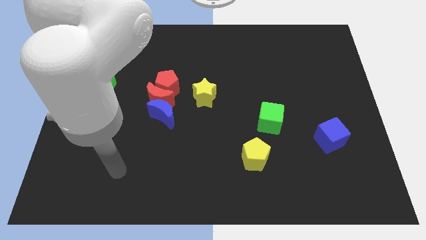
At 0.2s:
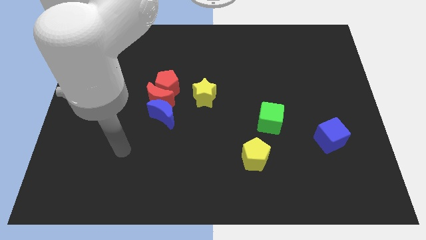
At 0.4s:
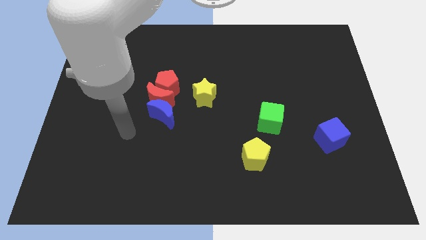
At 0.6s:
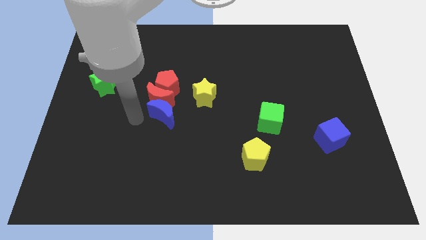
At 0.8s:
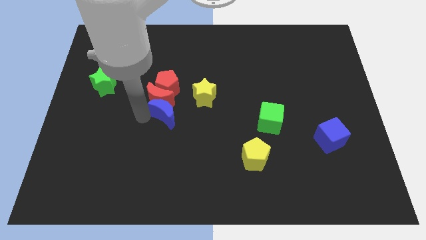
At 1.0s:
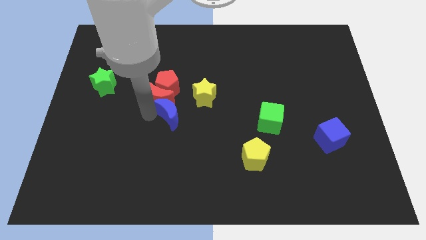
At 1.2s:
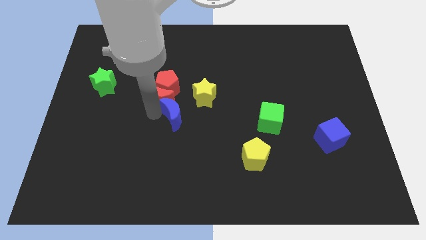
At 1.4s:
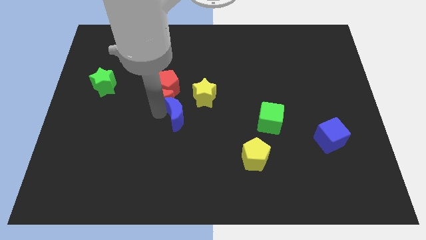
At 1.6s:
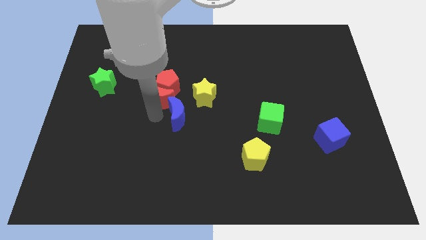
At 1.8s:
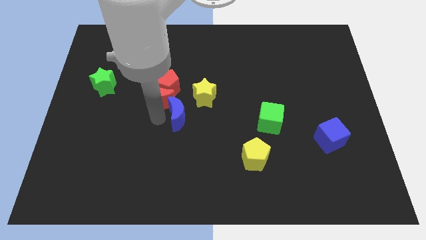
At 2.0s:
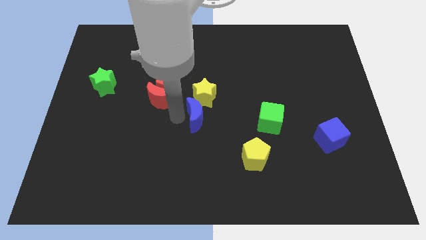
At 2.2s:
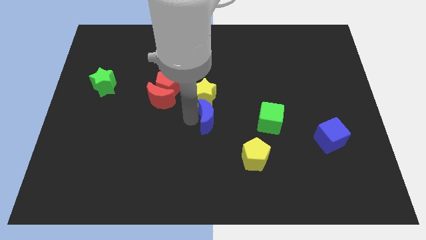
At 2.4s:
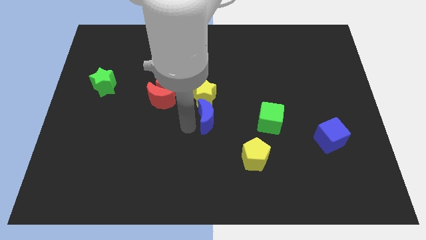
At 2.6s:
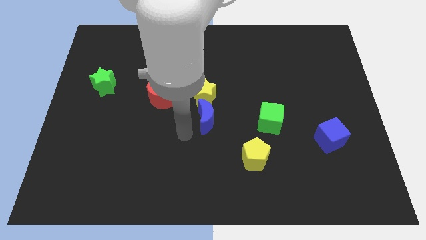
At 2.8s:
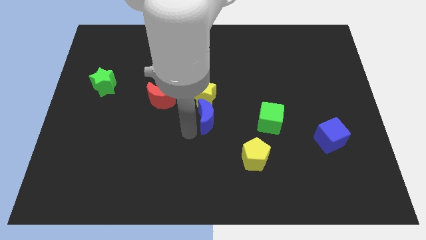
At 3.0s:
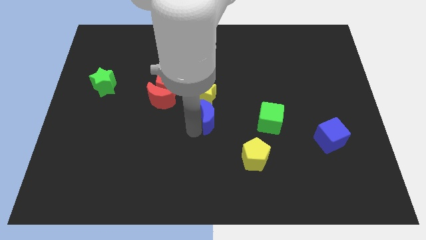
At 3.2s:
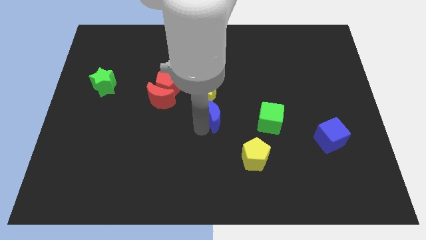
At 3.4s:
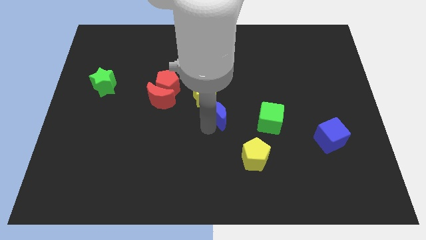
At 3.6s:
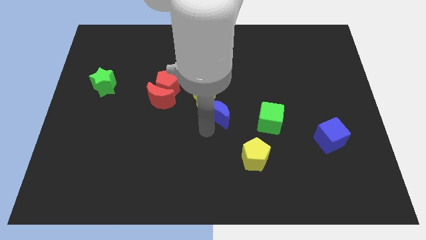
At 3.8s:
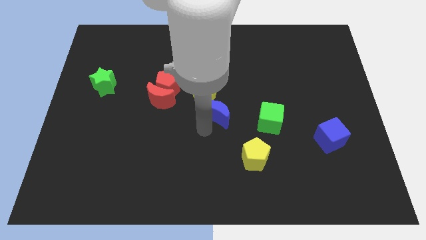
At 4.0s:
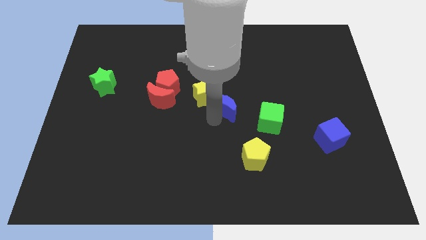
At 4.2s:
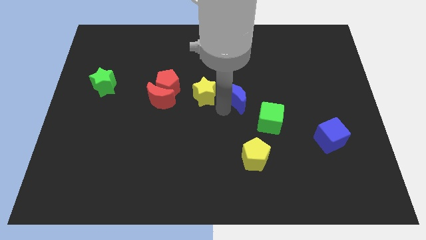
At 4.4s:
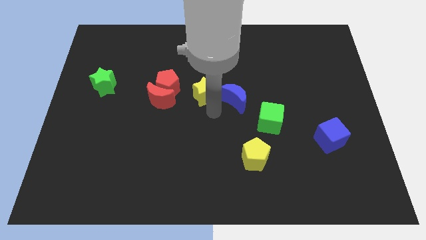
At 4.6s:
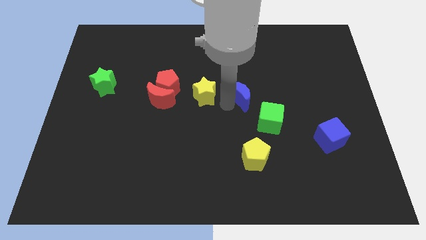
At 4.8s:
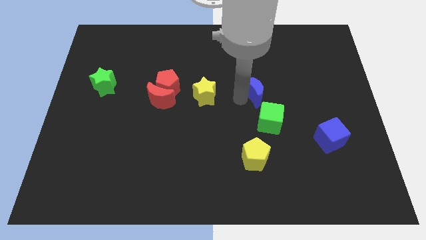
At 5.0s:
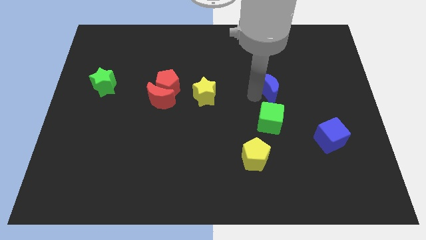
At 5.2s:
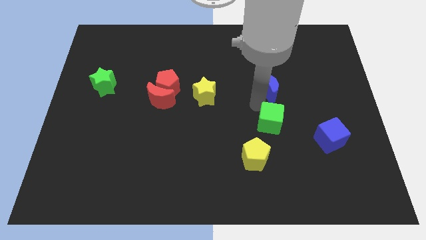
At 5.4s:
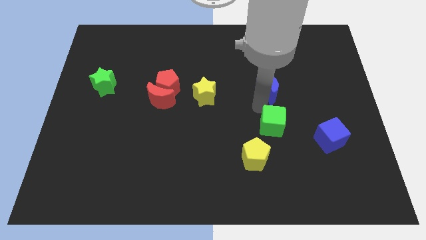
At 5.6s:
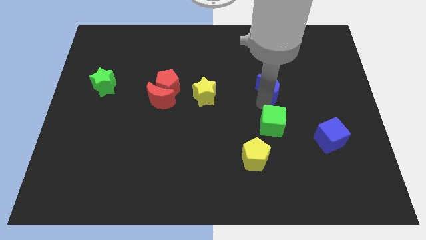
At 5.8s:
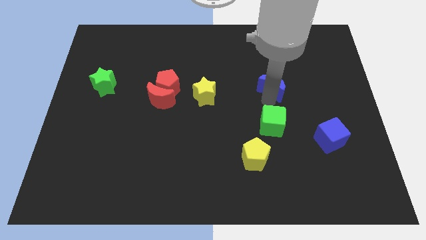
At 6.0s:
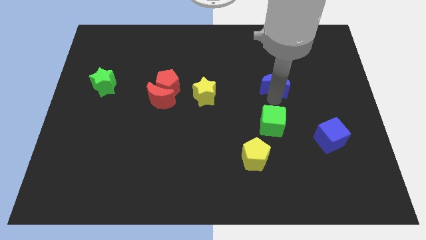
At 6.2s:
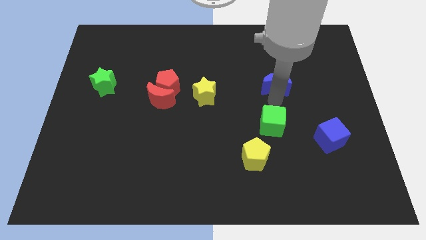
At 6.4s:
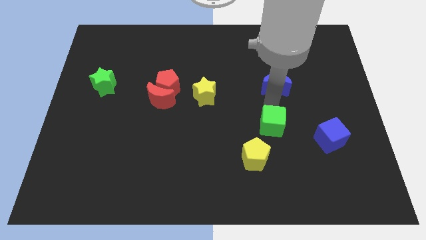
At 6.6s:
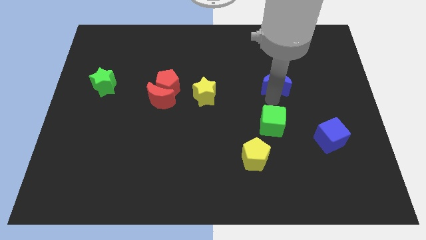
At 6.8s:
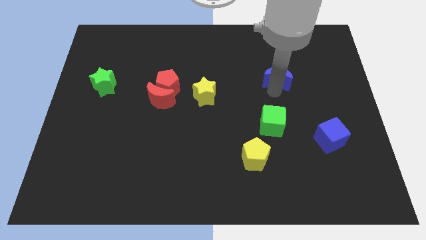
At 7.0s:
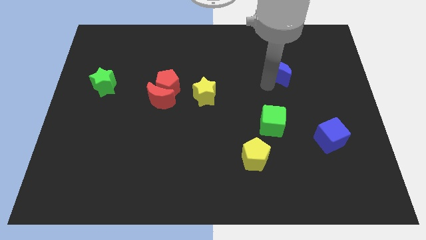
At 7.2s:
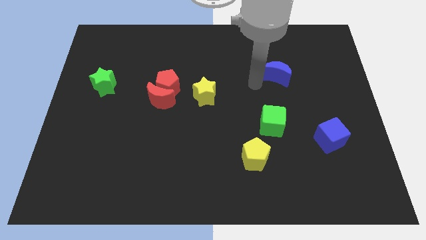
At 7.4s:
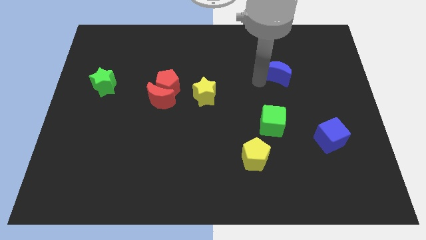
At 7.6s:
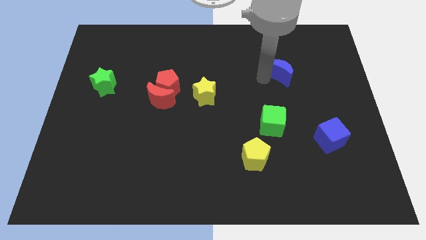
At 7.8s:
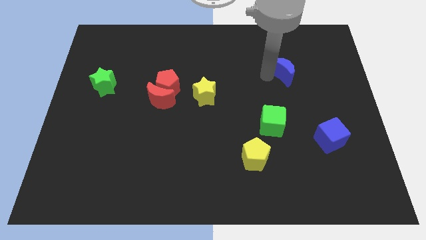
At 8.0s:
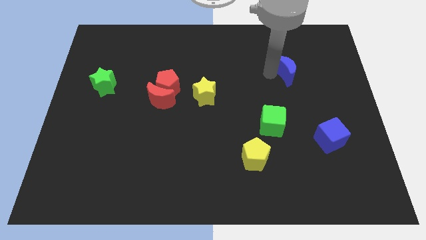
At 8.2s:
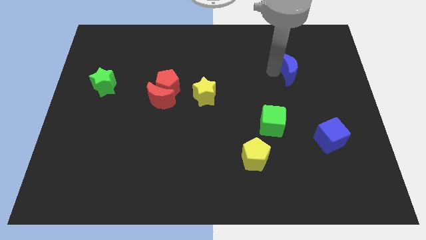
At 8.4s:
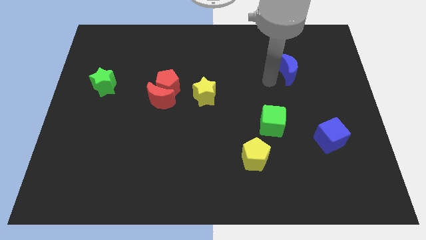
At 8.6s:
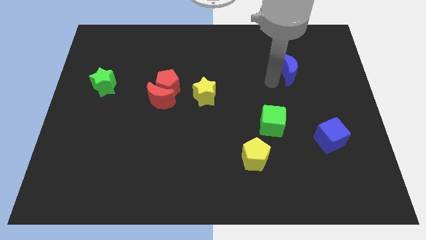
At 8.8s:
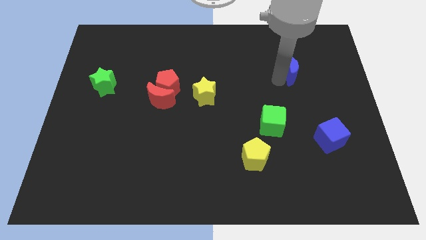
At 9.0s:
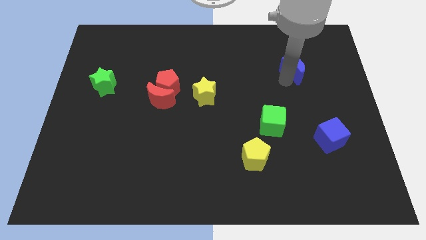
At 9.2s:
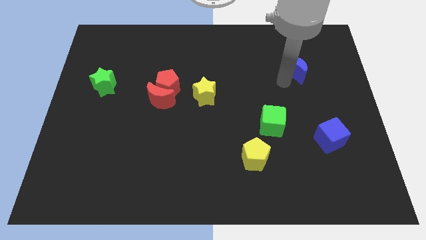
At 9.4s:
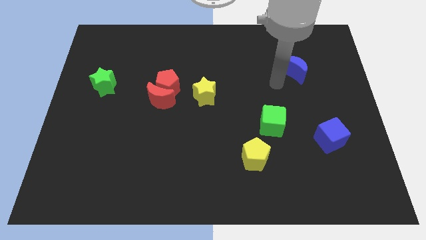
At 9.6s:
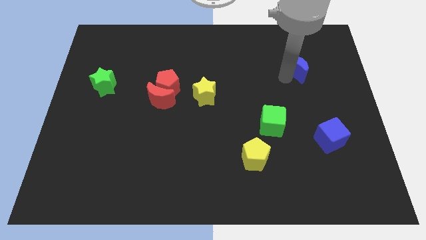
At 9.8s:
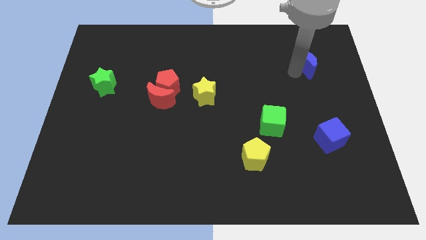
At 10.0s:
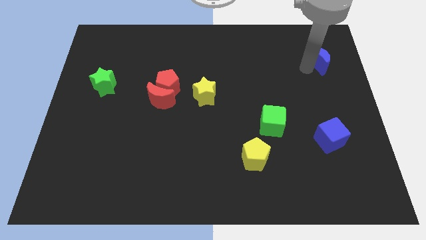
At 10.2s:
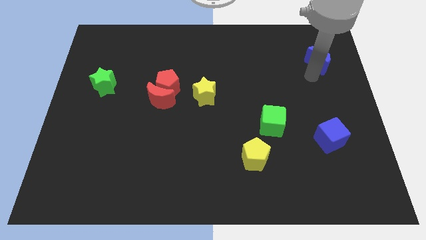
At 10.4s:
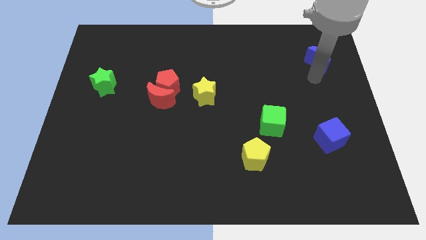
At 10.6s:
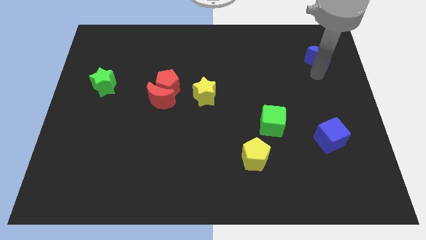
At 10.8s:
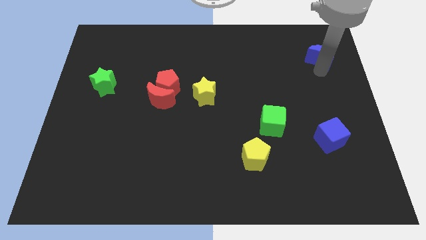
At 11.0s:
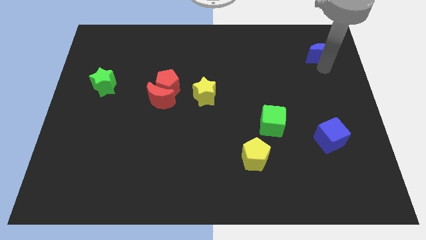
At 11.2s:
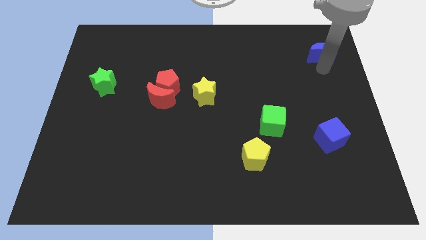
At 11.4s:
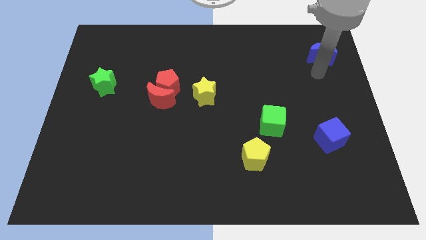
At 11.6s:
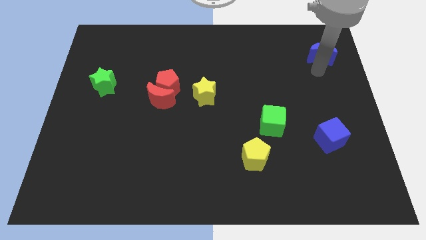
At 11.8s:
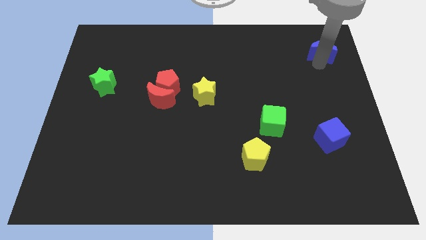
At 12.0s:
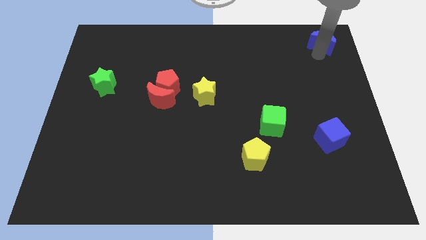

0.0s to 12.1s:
slide the blue moon to the upper right corner

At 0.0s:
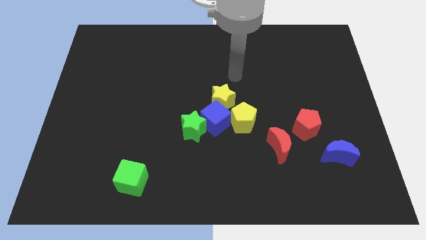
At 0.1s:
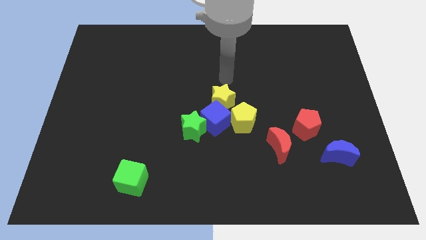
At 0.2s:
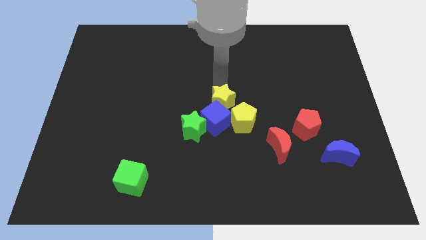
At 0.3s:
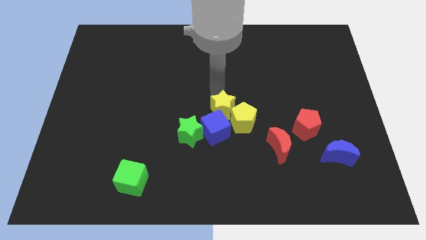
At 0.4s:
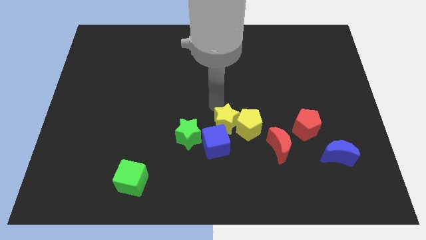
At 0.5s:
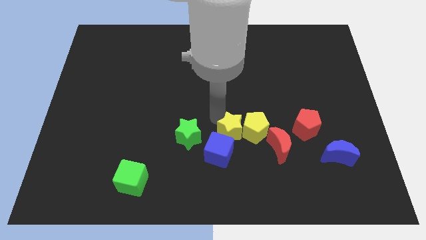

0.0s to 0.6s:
slide the blue cube to the bottom side
